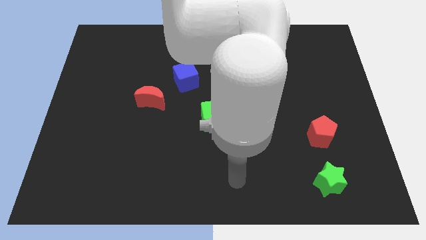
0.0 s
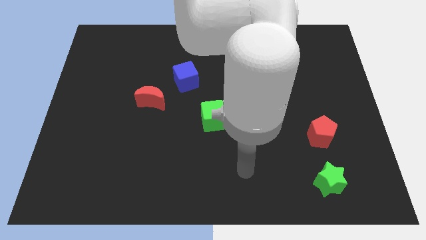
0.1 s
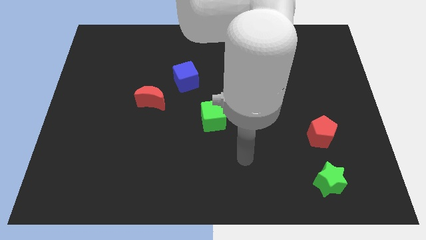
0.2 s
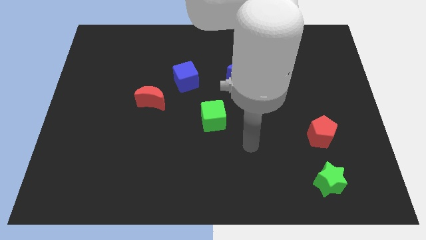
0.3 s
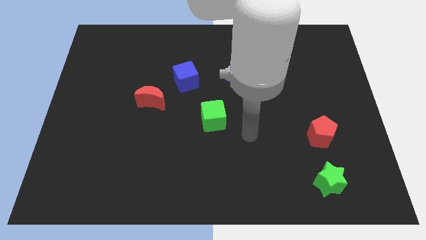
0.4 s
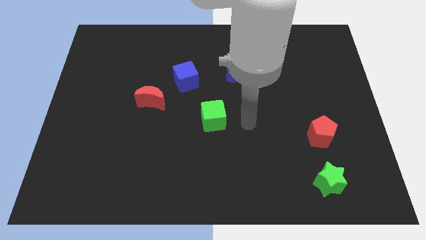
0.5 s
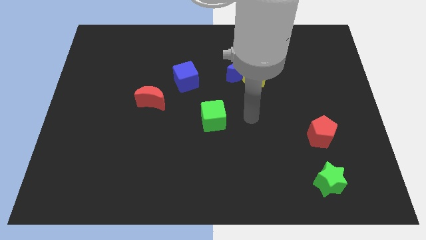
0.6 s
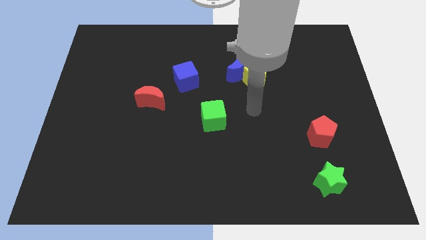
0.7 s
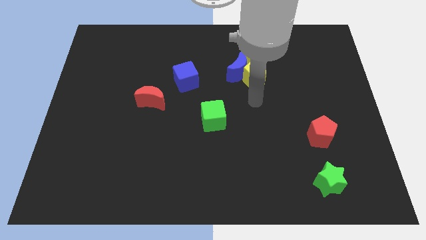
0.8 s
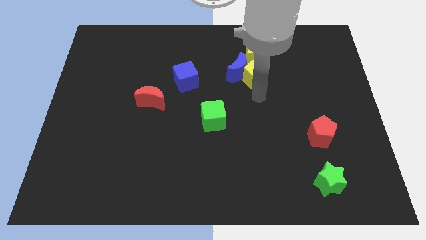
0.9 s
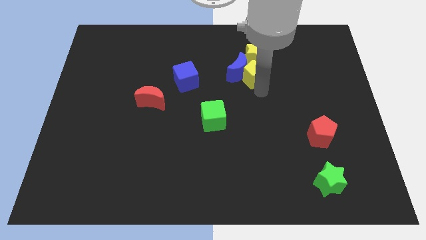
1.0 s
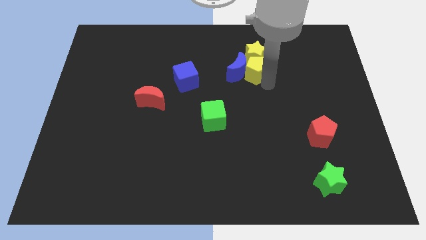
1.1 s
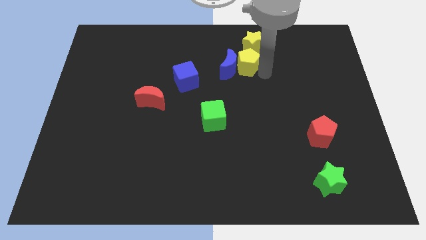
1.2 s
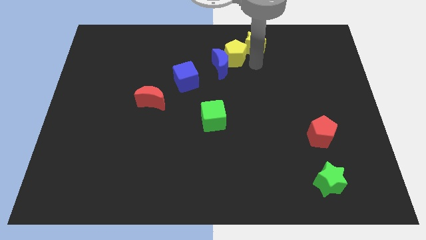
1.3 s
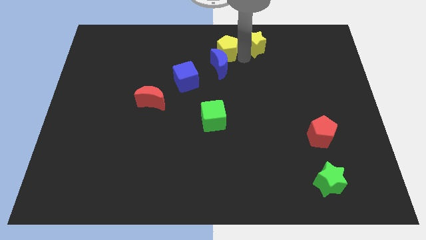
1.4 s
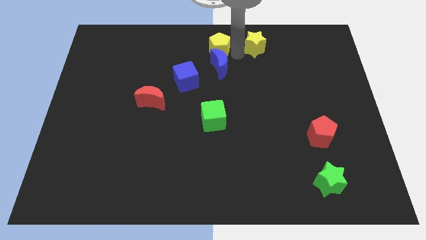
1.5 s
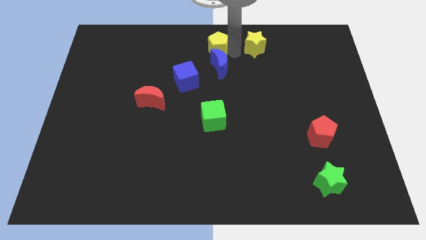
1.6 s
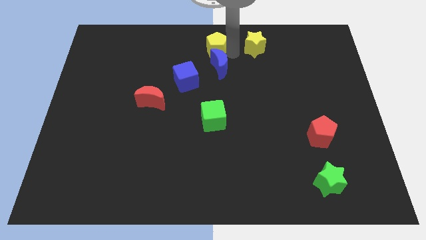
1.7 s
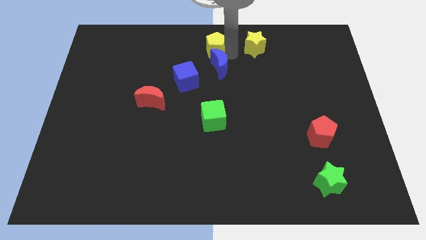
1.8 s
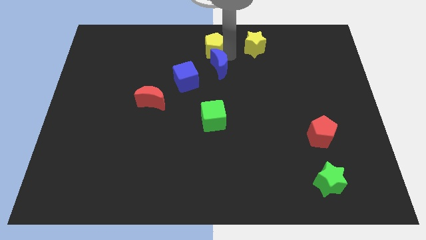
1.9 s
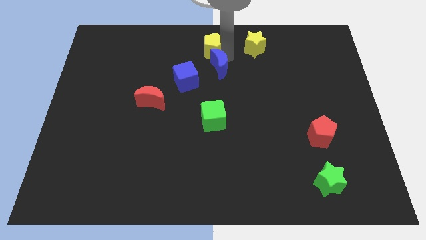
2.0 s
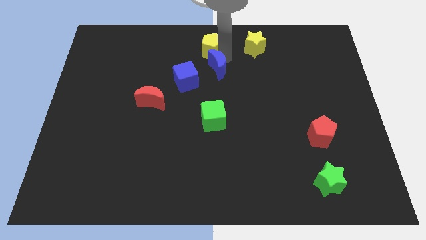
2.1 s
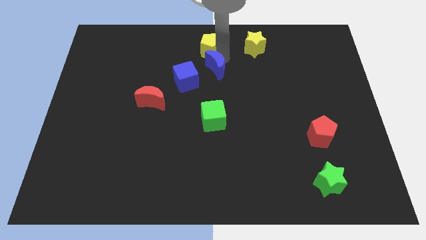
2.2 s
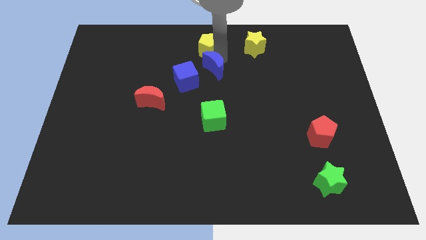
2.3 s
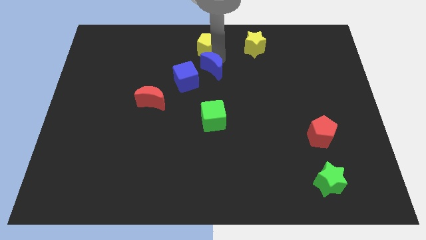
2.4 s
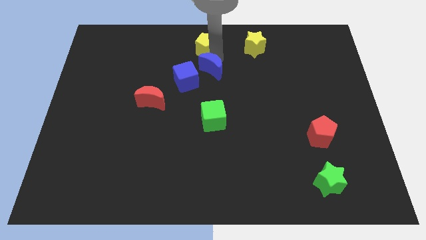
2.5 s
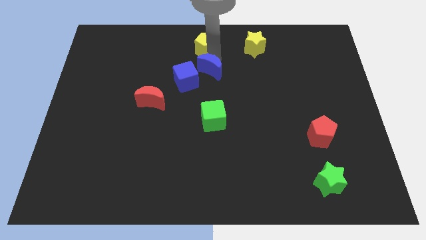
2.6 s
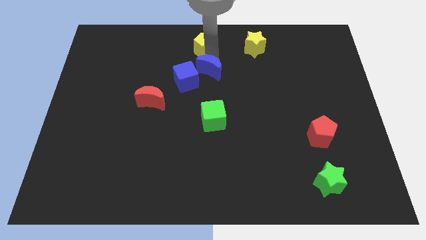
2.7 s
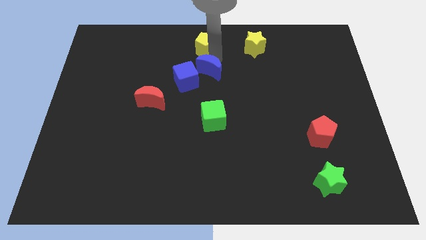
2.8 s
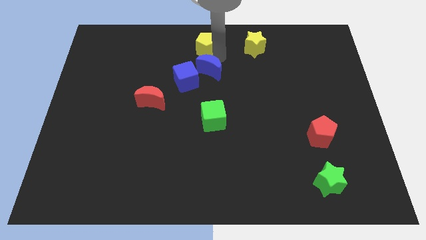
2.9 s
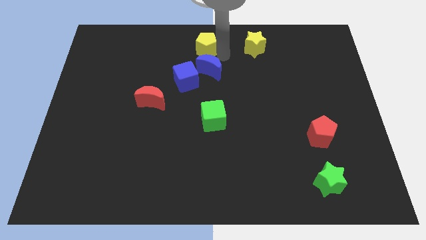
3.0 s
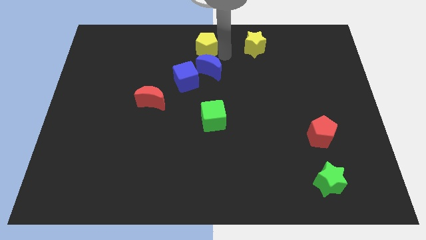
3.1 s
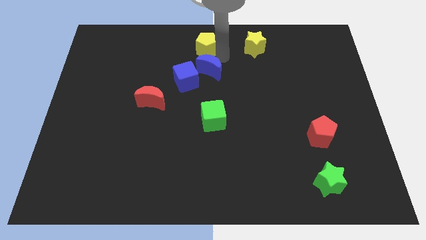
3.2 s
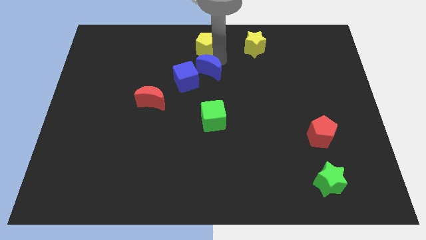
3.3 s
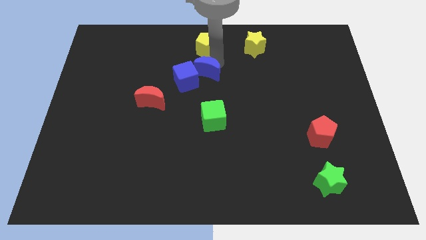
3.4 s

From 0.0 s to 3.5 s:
move the blue moon away from the yellow pentagon and yellow star

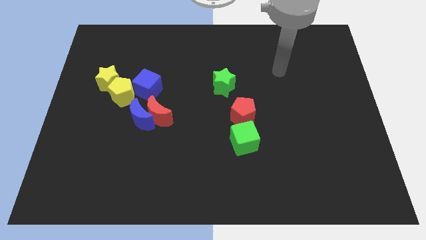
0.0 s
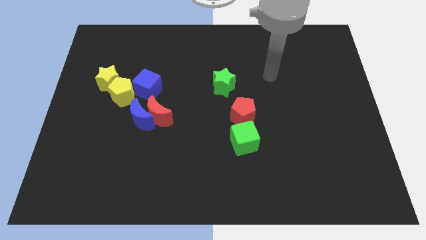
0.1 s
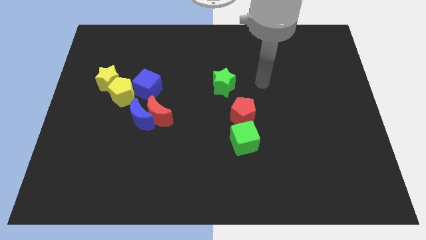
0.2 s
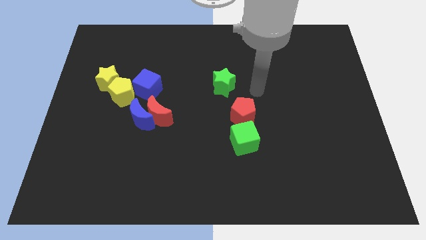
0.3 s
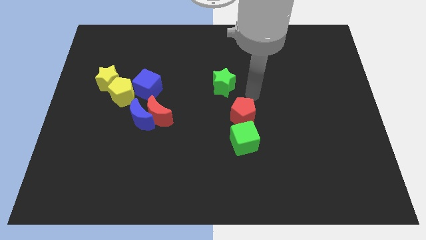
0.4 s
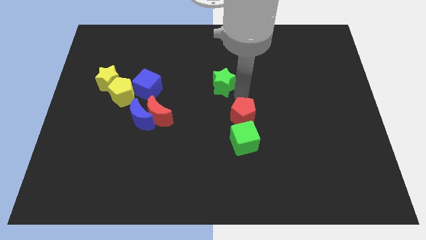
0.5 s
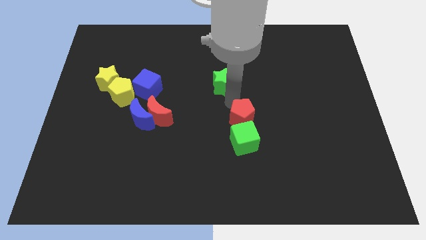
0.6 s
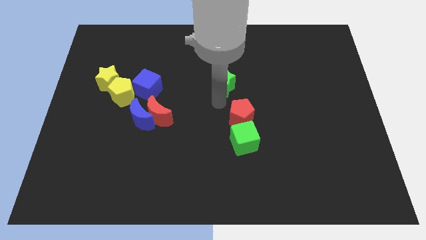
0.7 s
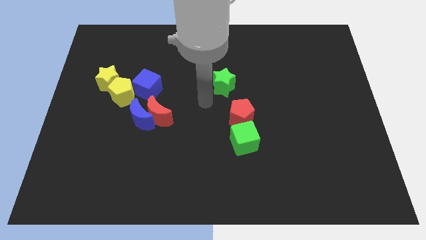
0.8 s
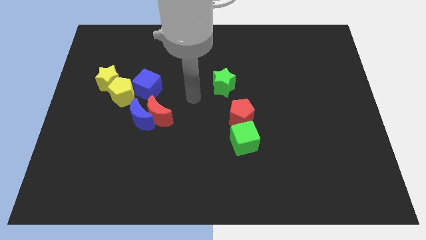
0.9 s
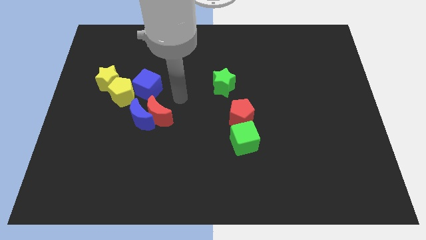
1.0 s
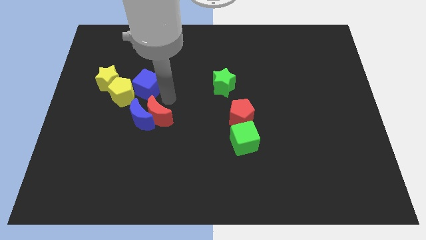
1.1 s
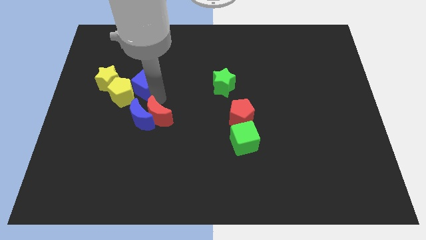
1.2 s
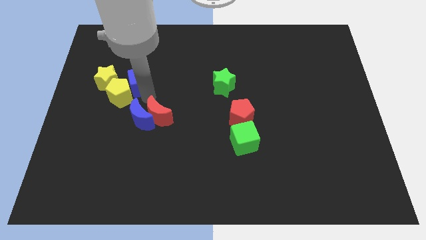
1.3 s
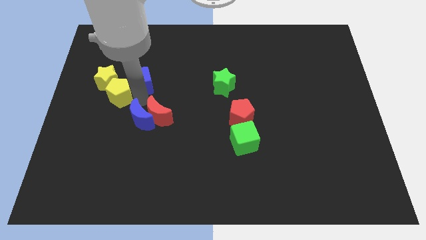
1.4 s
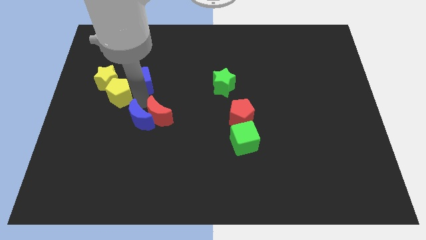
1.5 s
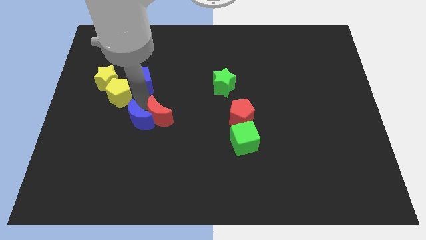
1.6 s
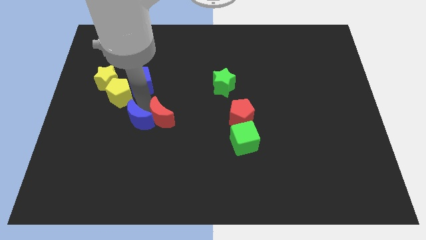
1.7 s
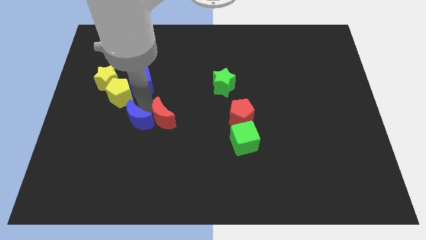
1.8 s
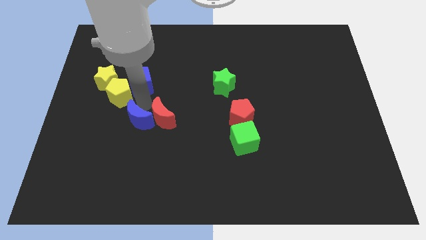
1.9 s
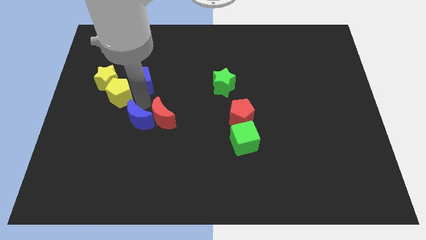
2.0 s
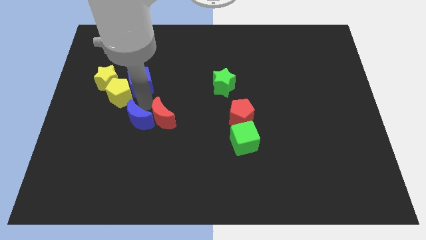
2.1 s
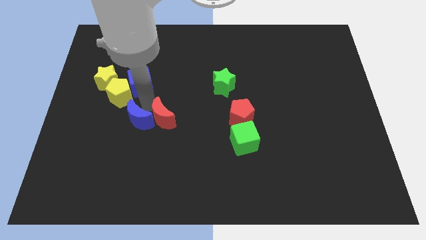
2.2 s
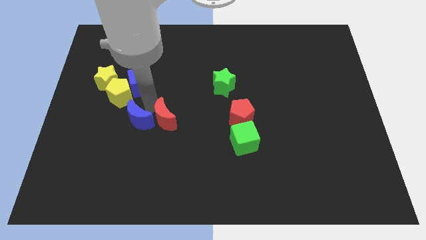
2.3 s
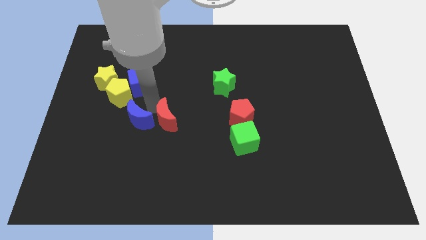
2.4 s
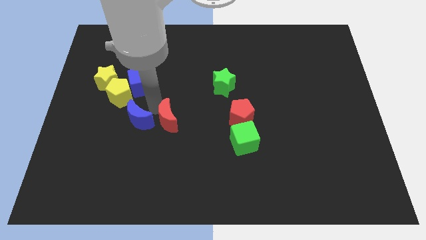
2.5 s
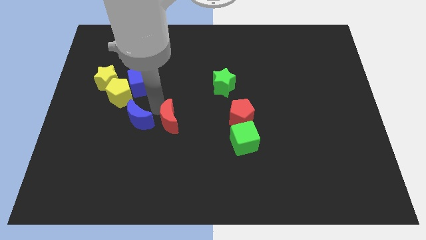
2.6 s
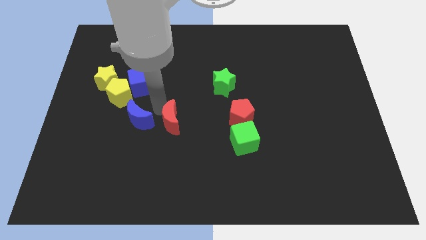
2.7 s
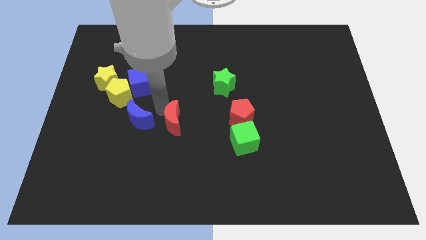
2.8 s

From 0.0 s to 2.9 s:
move the red moon away from the blue moon and blue cube

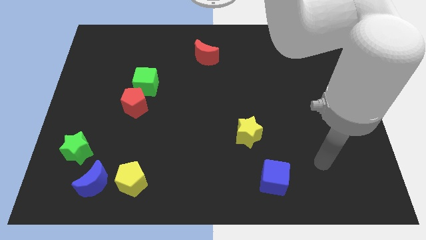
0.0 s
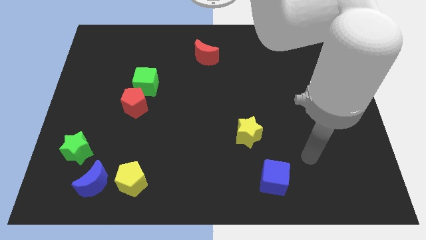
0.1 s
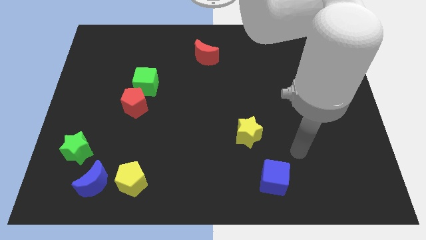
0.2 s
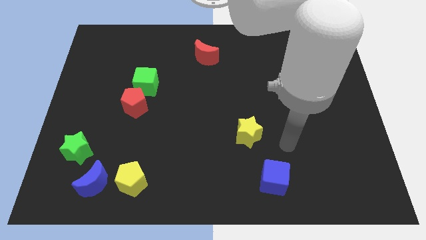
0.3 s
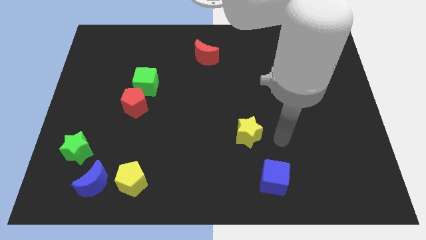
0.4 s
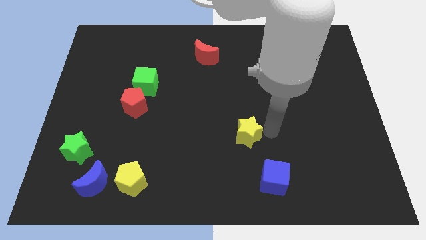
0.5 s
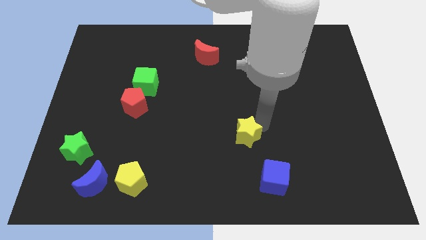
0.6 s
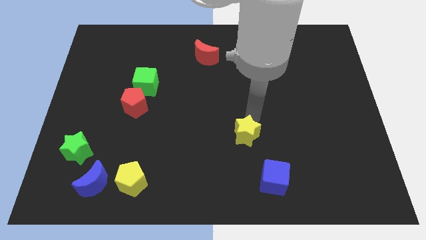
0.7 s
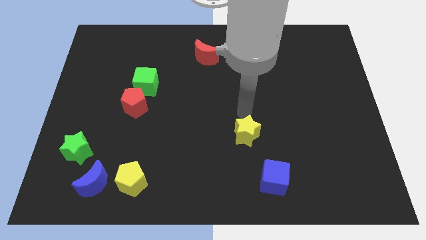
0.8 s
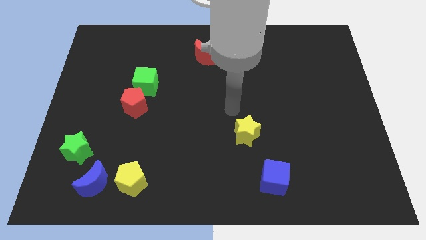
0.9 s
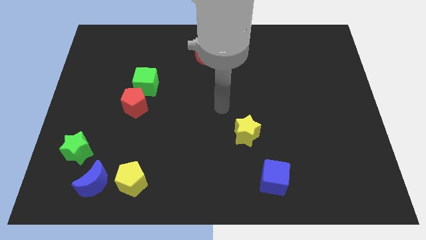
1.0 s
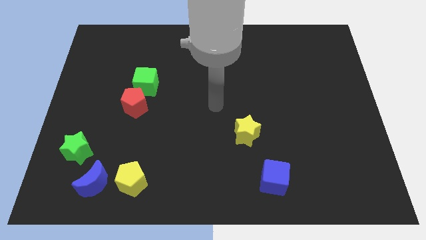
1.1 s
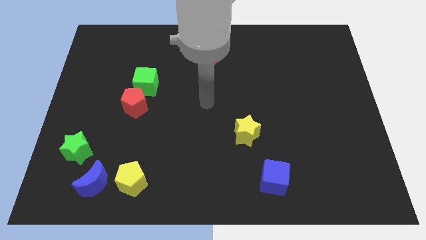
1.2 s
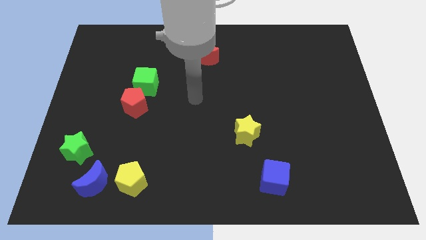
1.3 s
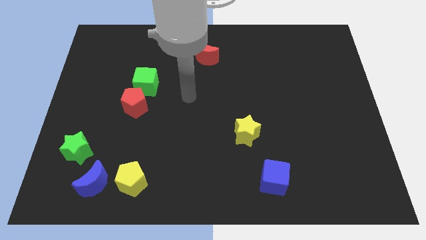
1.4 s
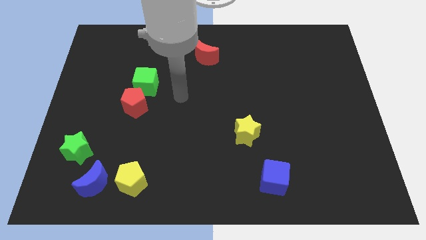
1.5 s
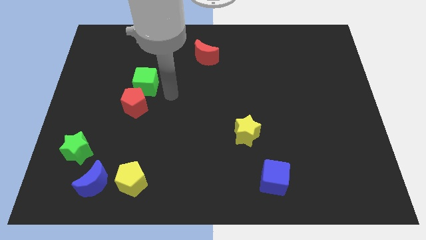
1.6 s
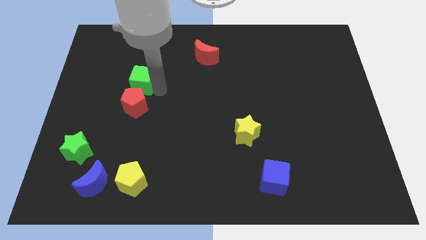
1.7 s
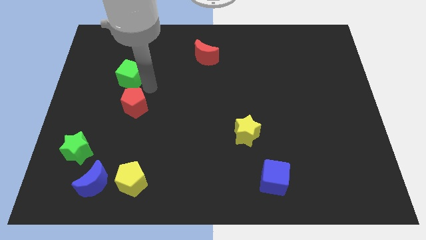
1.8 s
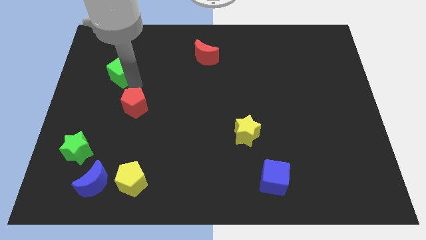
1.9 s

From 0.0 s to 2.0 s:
pull the red pentagon apart from the green cube

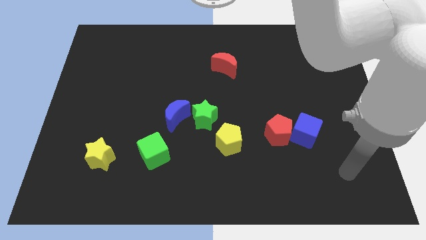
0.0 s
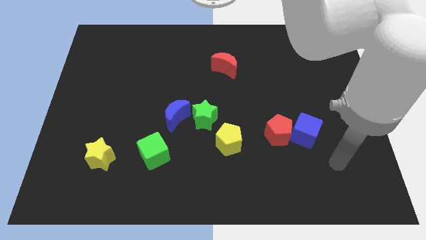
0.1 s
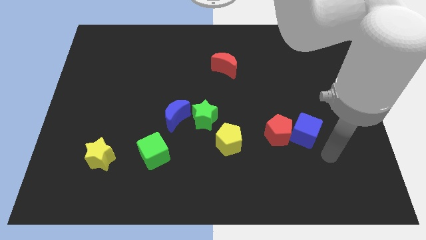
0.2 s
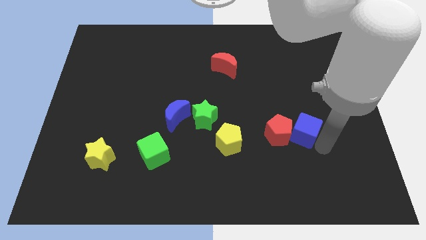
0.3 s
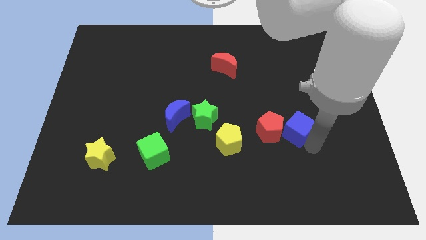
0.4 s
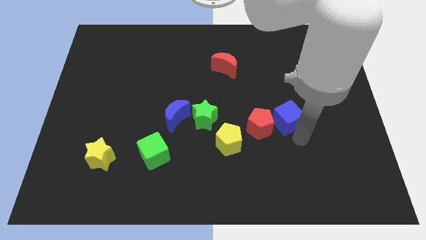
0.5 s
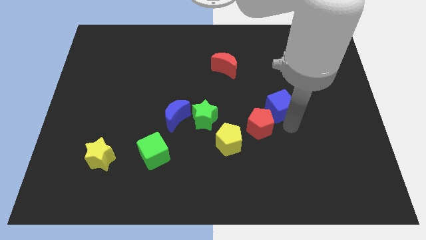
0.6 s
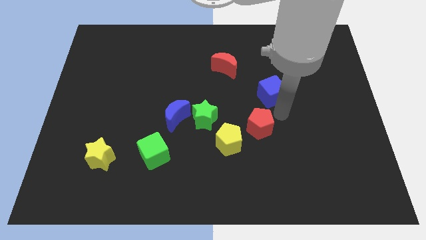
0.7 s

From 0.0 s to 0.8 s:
pull the red pentagon apart from the blue cube

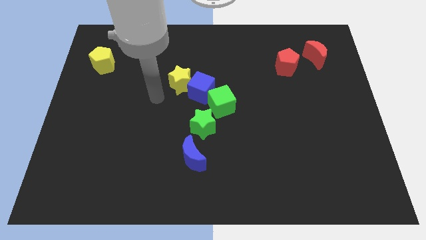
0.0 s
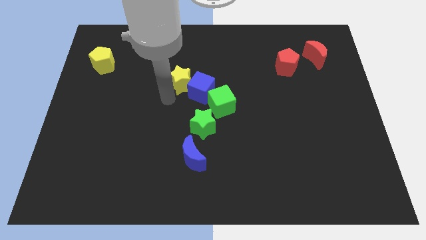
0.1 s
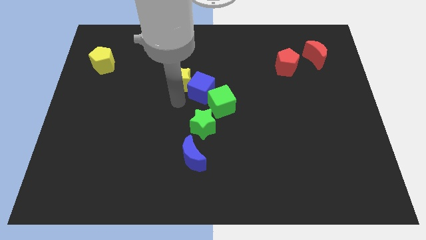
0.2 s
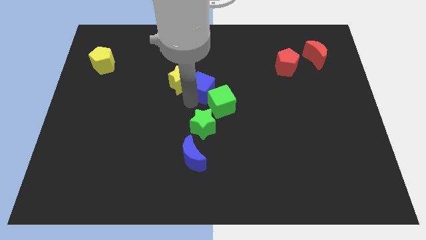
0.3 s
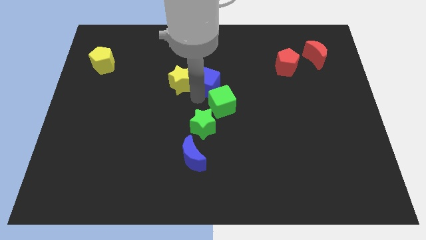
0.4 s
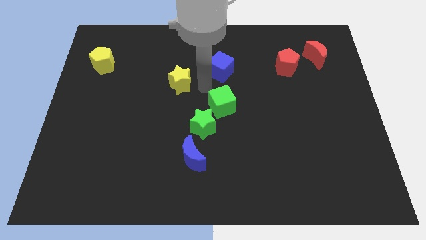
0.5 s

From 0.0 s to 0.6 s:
move the yellow star away from the blue cube
